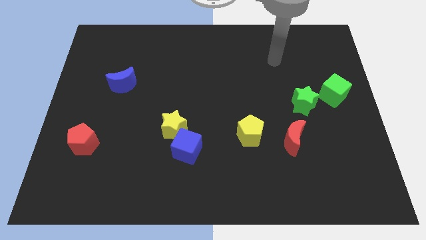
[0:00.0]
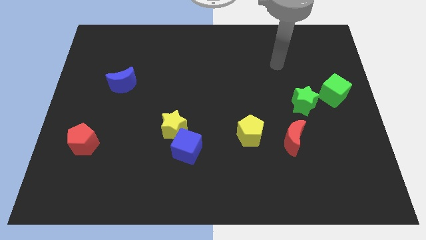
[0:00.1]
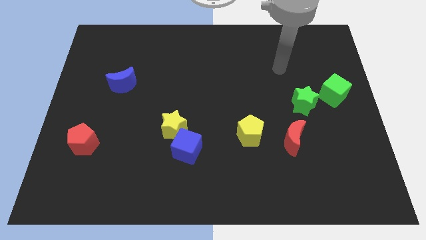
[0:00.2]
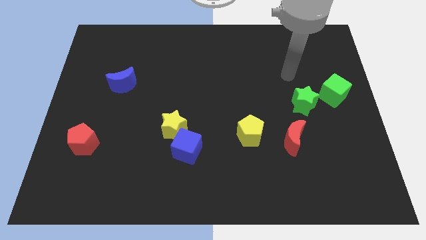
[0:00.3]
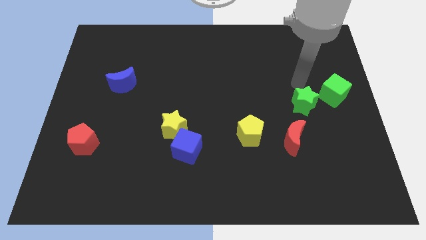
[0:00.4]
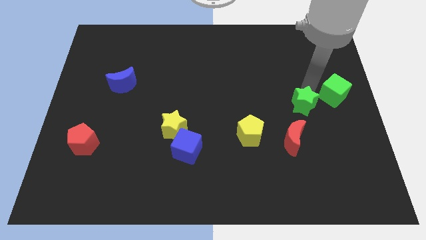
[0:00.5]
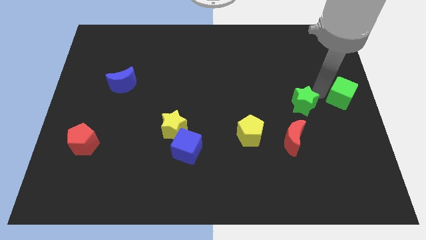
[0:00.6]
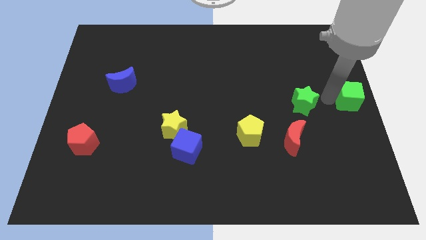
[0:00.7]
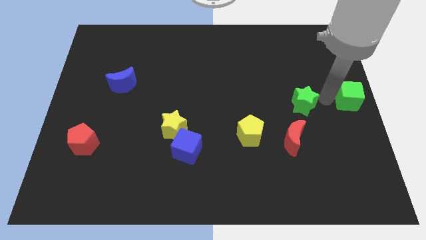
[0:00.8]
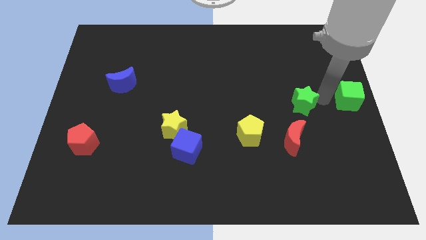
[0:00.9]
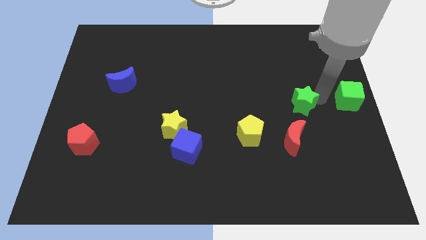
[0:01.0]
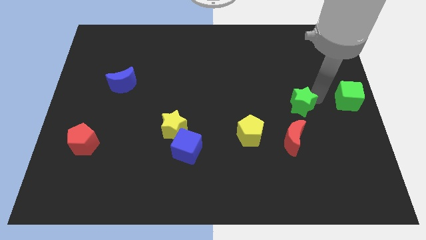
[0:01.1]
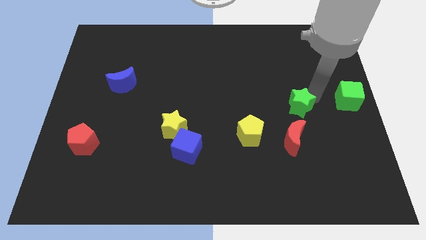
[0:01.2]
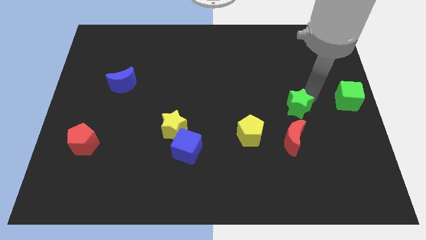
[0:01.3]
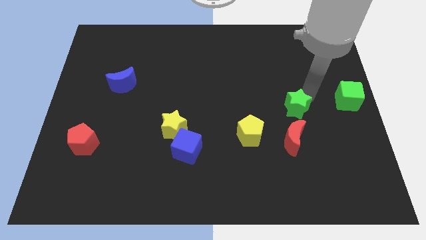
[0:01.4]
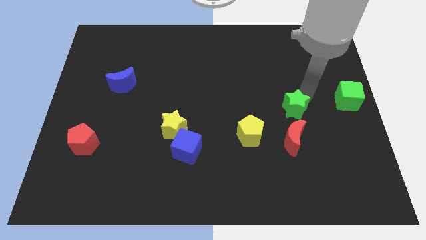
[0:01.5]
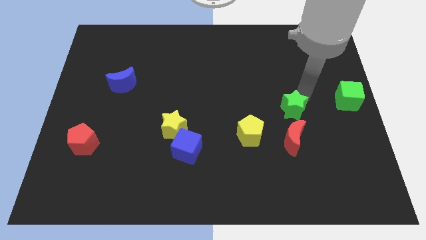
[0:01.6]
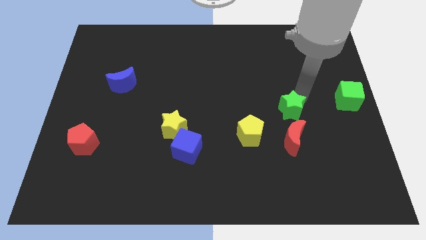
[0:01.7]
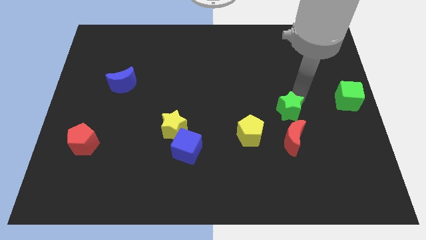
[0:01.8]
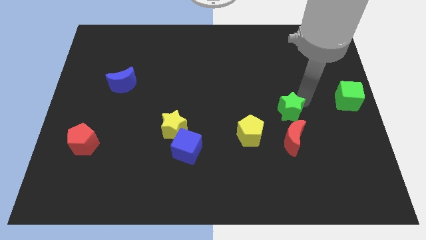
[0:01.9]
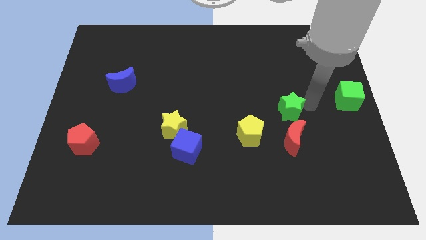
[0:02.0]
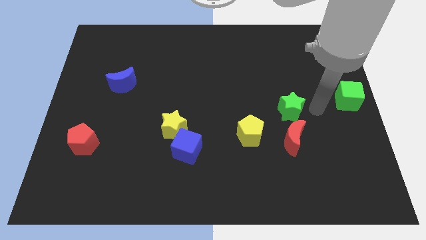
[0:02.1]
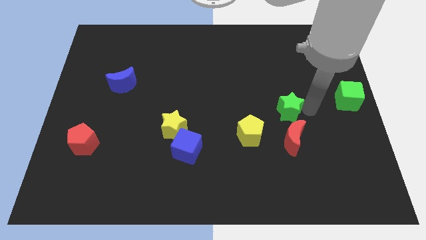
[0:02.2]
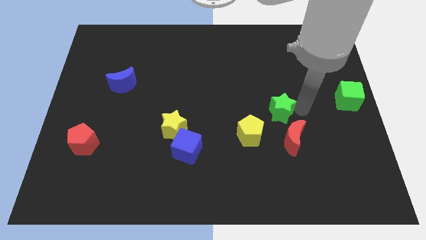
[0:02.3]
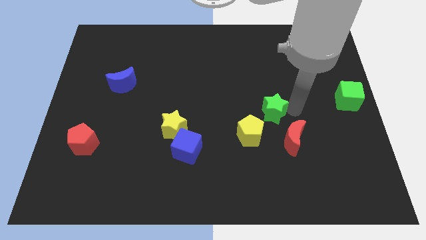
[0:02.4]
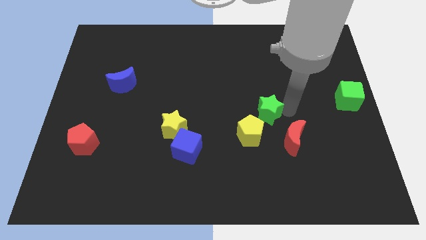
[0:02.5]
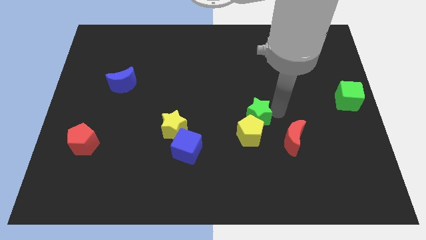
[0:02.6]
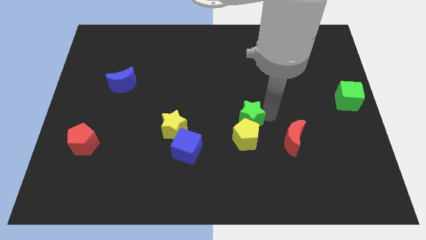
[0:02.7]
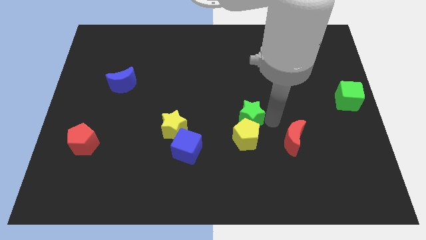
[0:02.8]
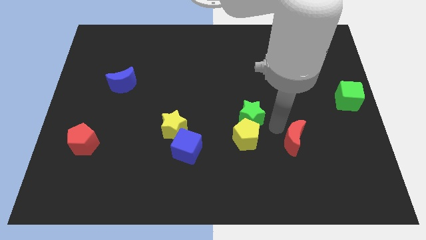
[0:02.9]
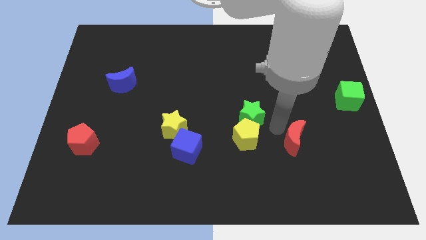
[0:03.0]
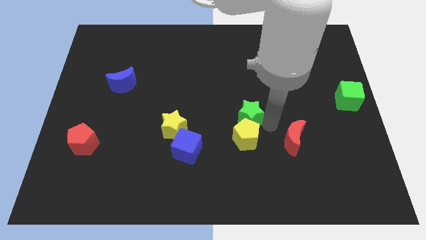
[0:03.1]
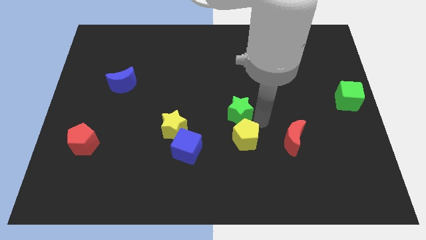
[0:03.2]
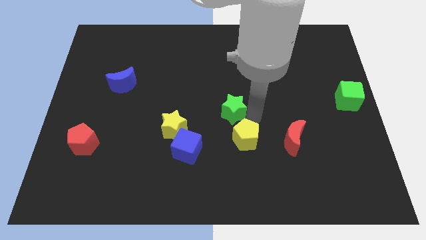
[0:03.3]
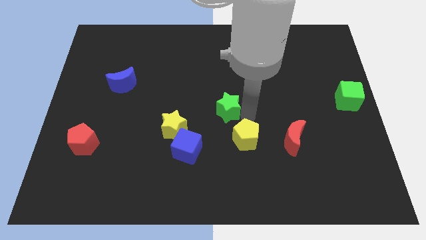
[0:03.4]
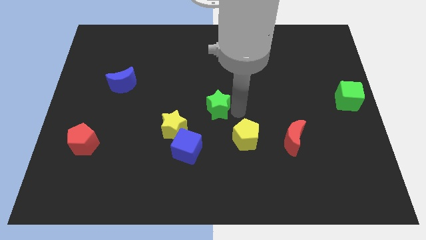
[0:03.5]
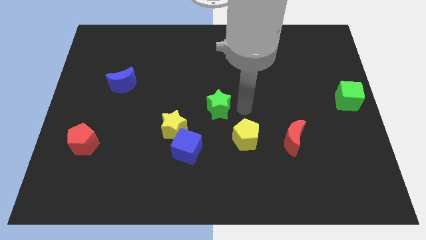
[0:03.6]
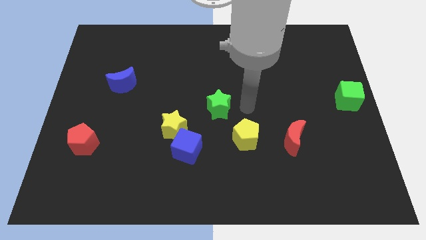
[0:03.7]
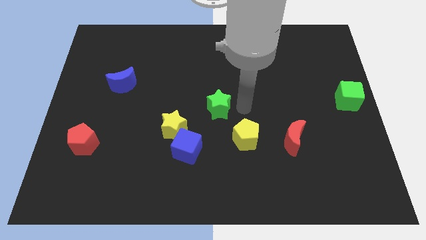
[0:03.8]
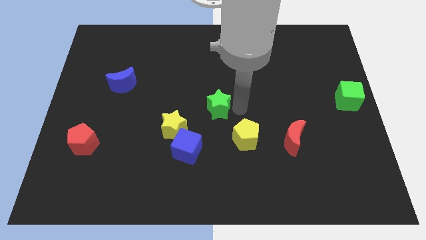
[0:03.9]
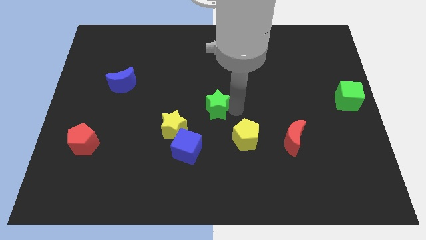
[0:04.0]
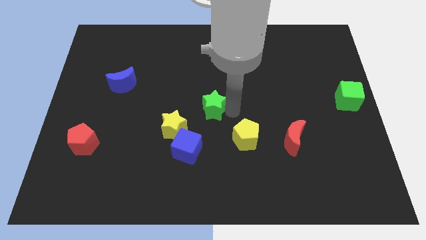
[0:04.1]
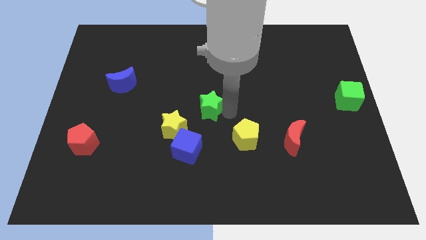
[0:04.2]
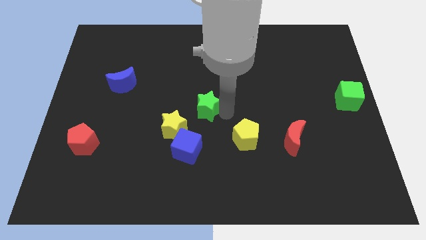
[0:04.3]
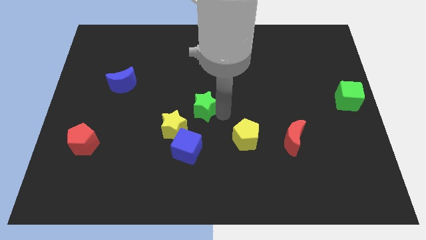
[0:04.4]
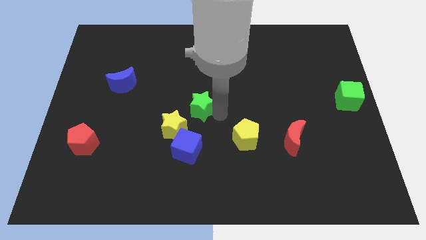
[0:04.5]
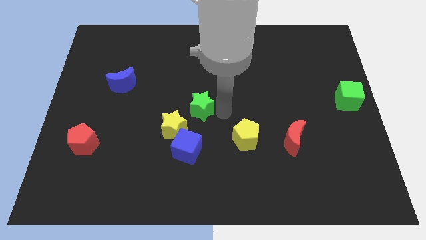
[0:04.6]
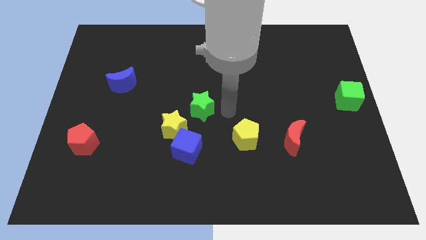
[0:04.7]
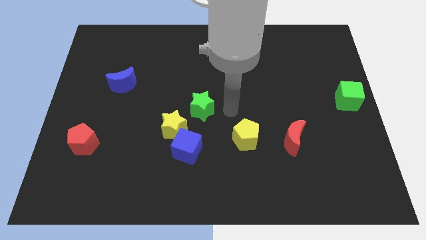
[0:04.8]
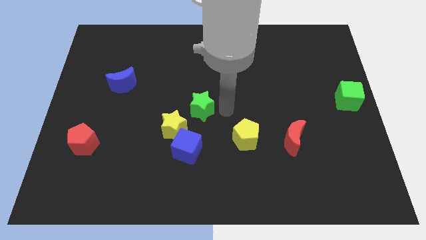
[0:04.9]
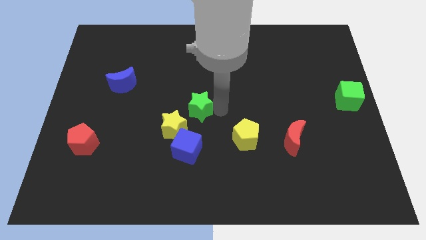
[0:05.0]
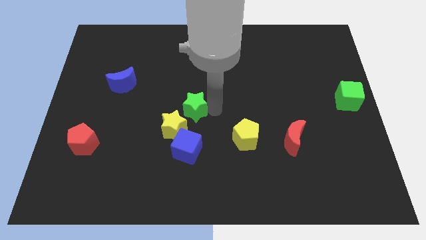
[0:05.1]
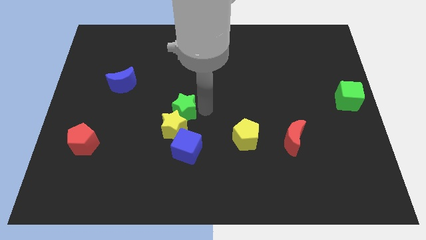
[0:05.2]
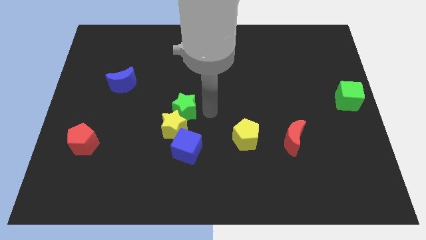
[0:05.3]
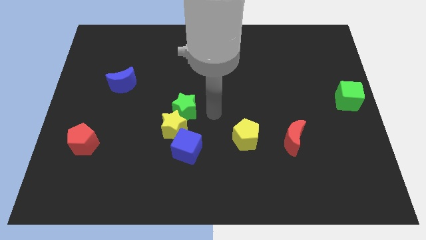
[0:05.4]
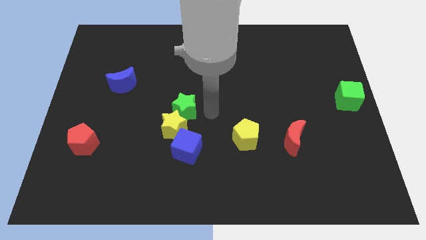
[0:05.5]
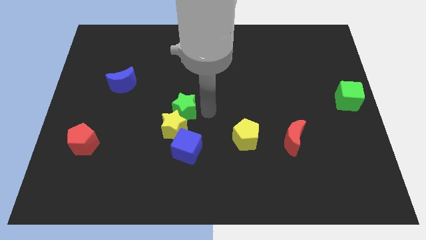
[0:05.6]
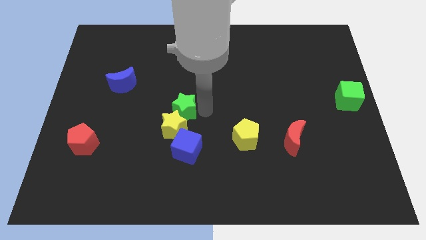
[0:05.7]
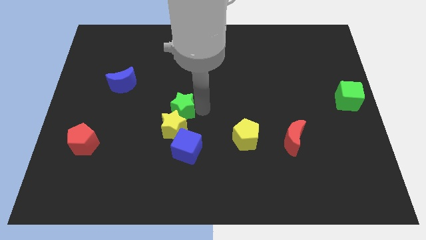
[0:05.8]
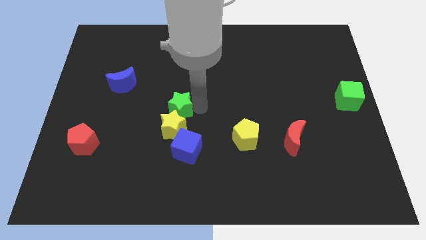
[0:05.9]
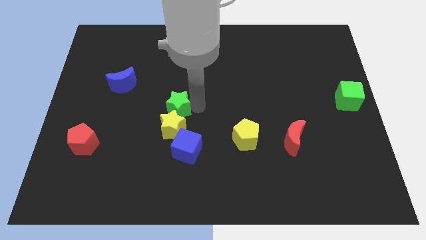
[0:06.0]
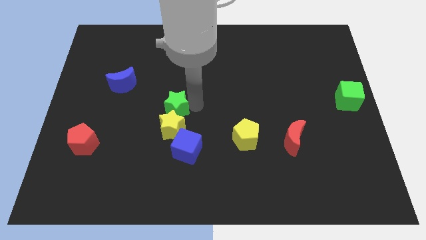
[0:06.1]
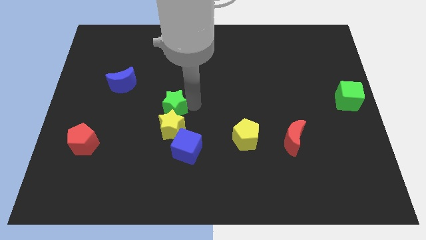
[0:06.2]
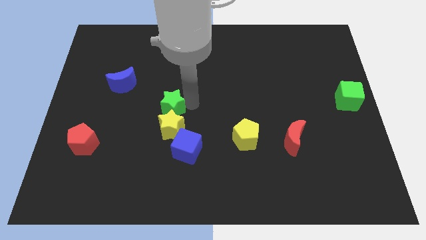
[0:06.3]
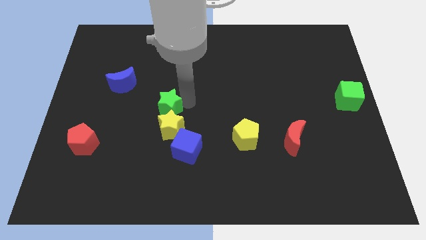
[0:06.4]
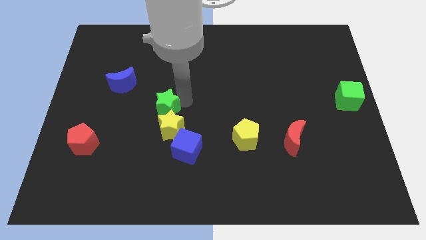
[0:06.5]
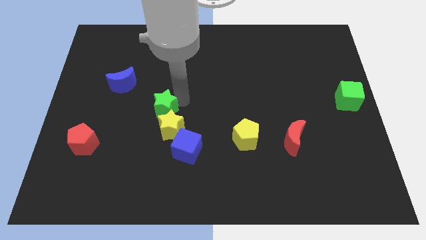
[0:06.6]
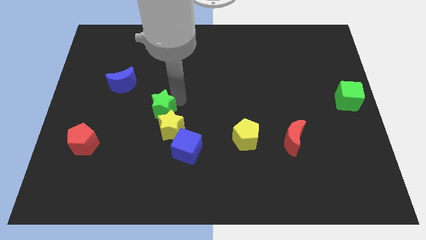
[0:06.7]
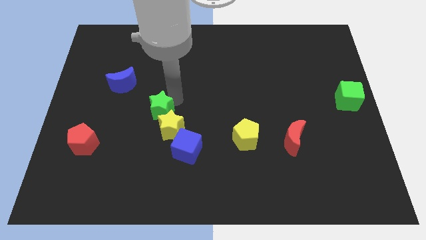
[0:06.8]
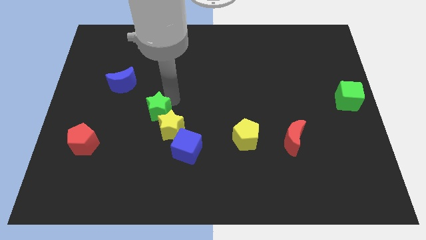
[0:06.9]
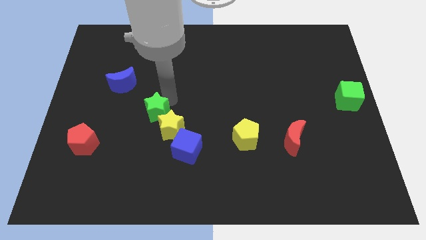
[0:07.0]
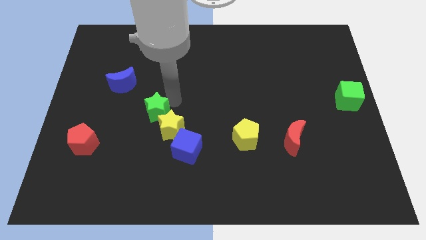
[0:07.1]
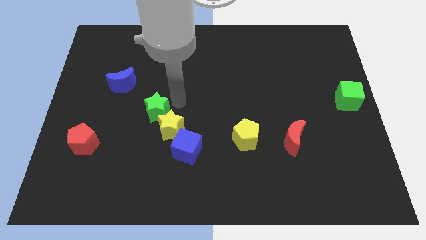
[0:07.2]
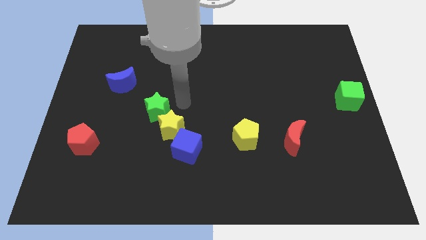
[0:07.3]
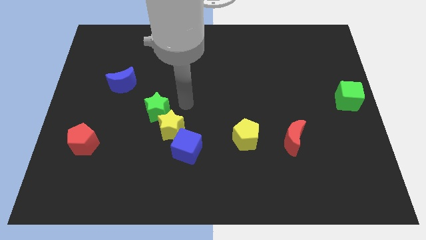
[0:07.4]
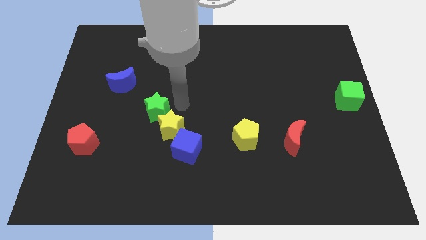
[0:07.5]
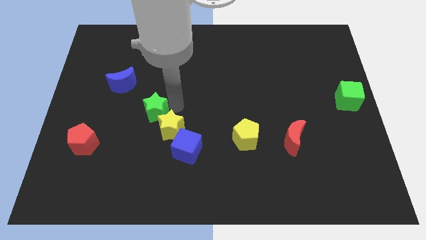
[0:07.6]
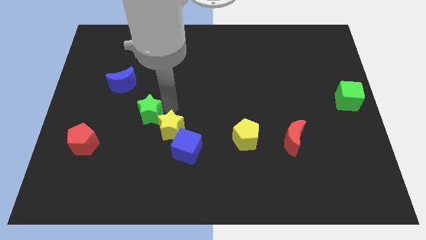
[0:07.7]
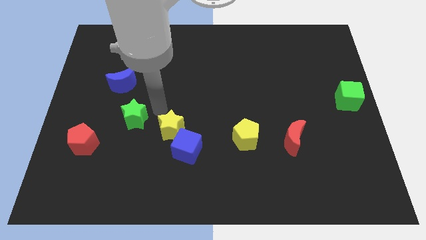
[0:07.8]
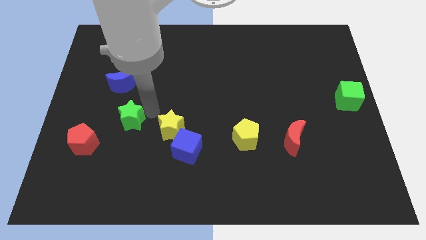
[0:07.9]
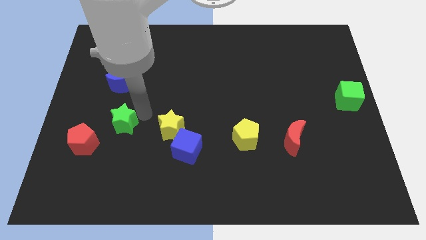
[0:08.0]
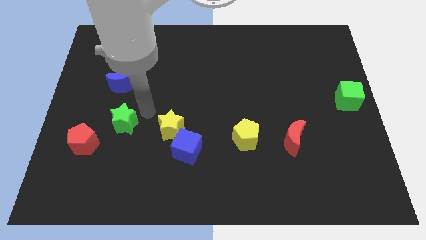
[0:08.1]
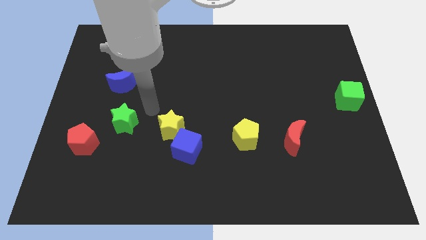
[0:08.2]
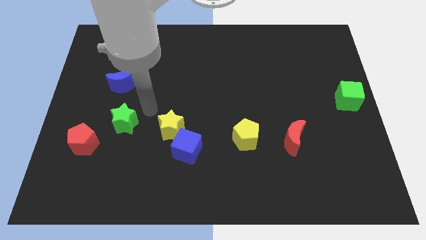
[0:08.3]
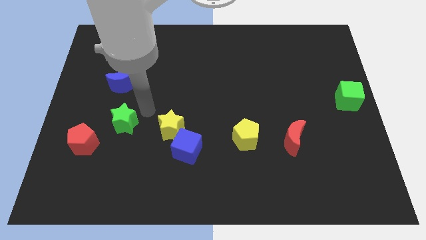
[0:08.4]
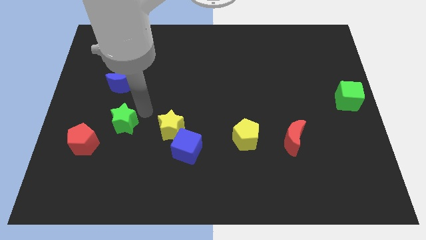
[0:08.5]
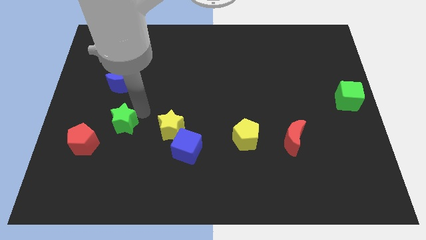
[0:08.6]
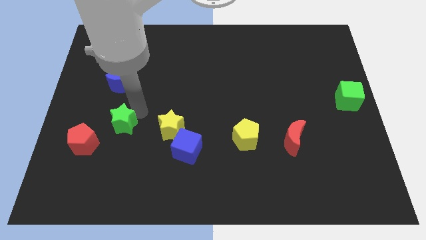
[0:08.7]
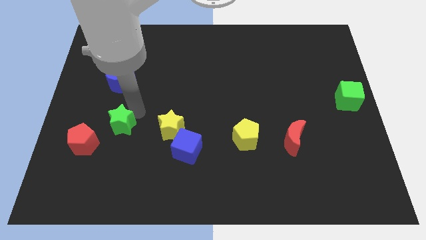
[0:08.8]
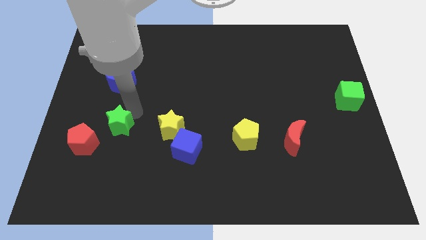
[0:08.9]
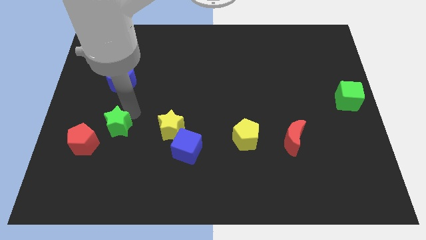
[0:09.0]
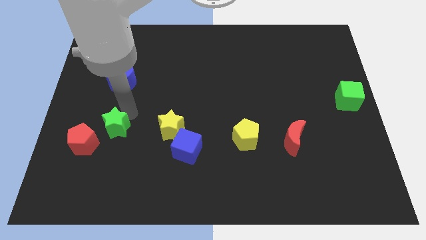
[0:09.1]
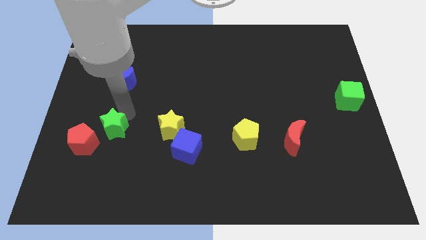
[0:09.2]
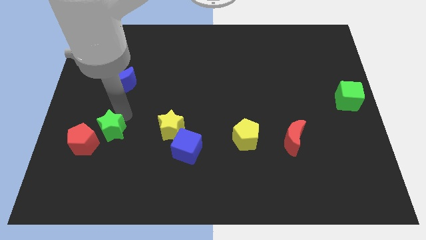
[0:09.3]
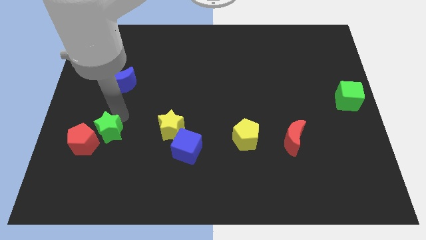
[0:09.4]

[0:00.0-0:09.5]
put the green star to the red pentagon
